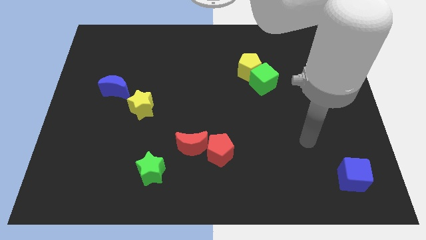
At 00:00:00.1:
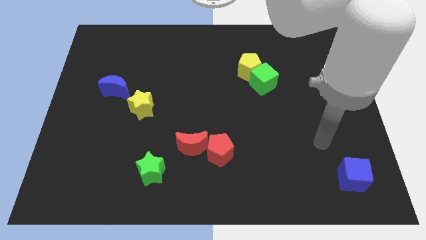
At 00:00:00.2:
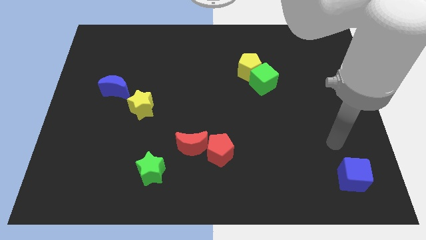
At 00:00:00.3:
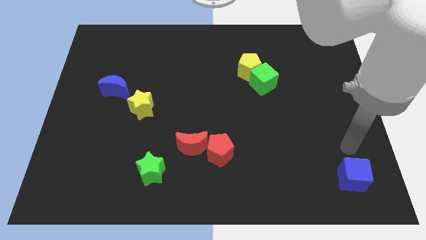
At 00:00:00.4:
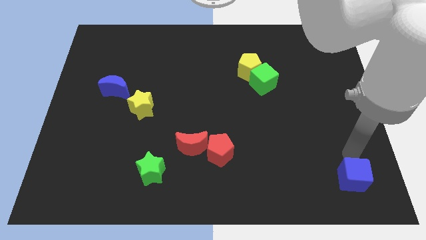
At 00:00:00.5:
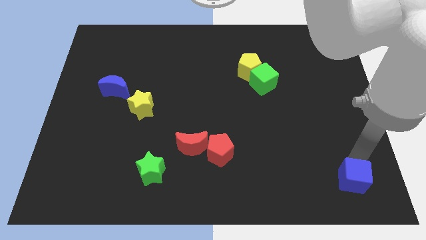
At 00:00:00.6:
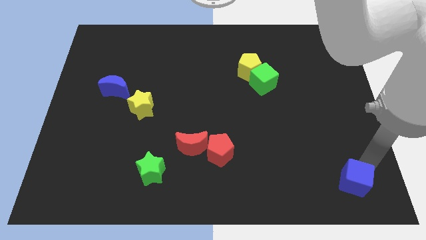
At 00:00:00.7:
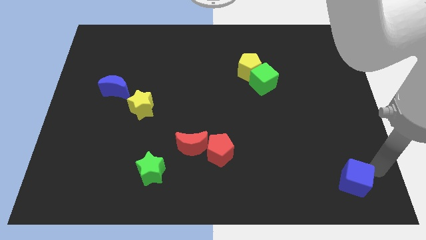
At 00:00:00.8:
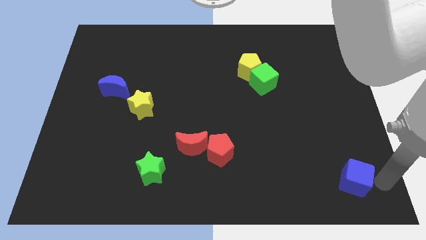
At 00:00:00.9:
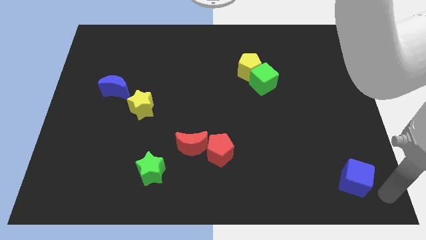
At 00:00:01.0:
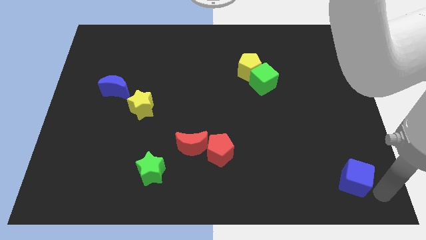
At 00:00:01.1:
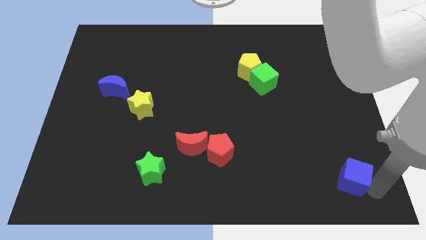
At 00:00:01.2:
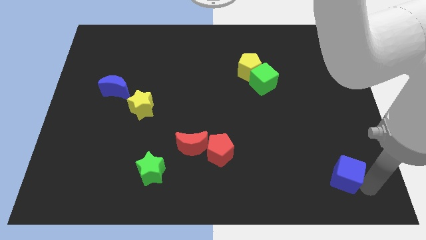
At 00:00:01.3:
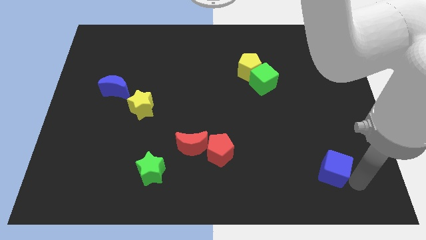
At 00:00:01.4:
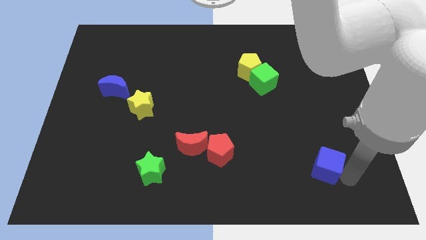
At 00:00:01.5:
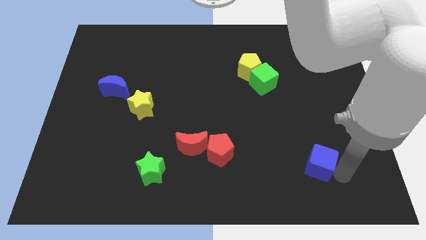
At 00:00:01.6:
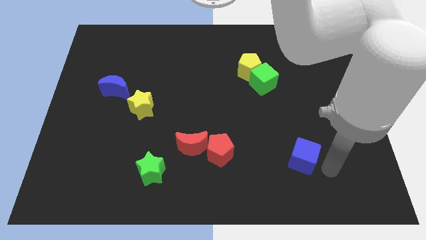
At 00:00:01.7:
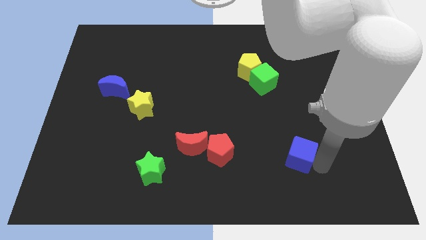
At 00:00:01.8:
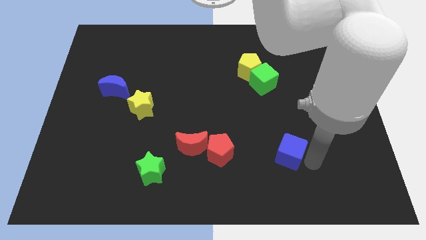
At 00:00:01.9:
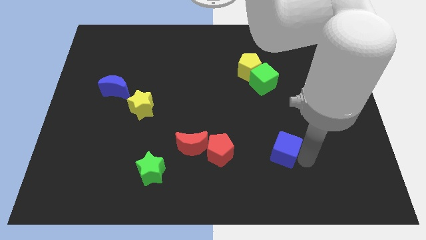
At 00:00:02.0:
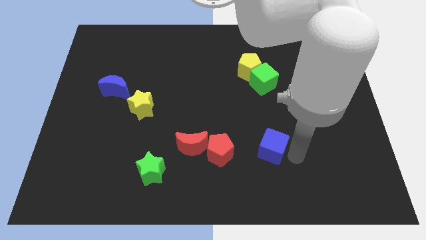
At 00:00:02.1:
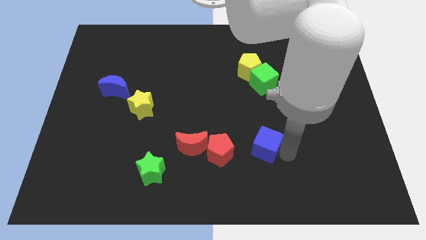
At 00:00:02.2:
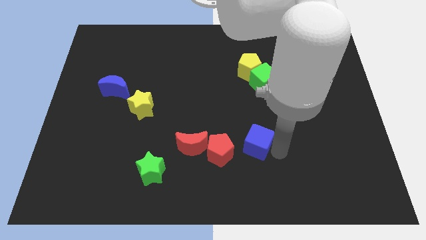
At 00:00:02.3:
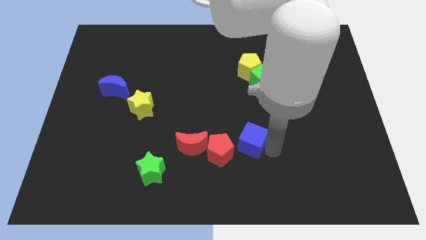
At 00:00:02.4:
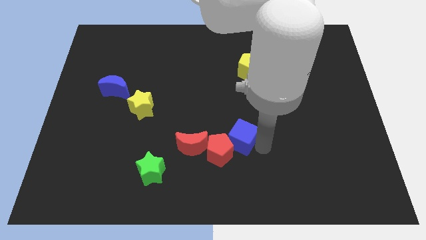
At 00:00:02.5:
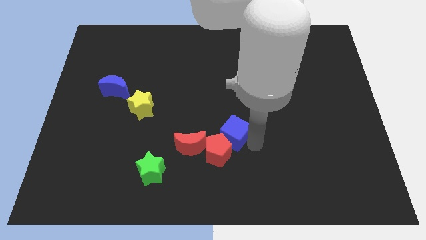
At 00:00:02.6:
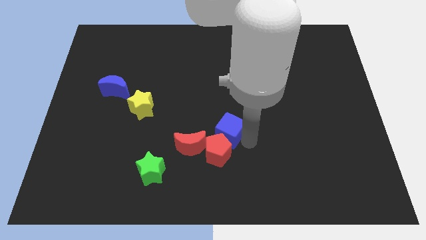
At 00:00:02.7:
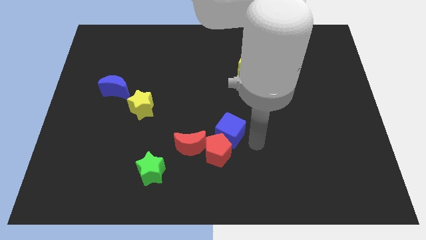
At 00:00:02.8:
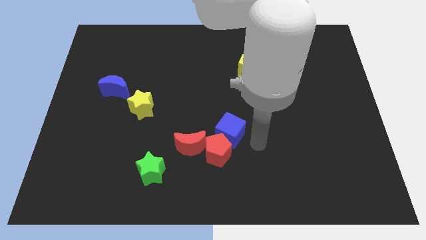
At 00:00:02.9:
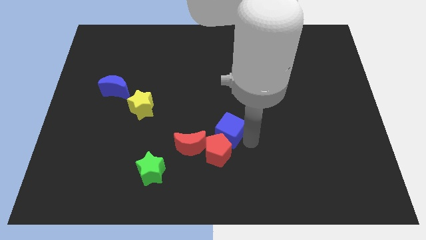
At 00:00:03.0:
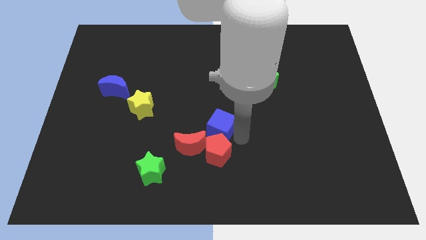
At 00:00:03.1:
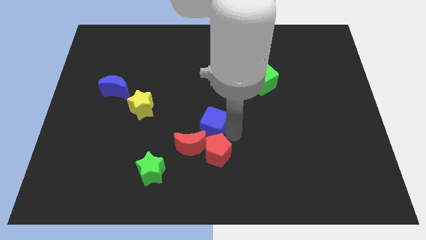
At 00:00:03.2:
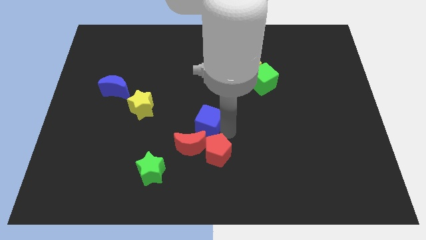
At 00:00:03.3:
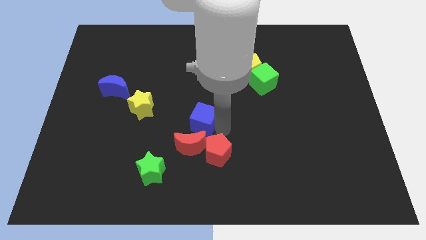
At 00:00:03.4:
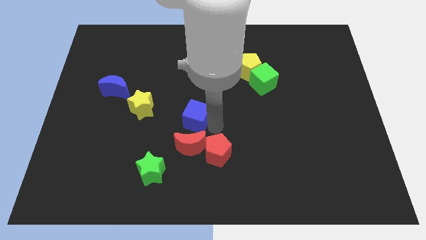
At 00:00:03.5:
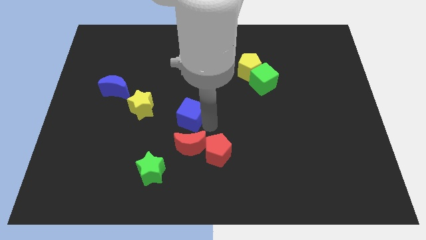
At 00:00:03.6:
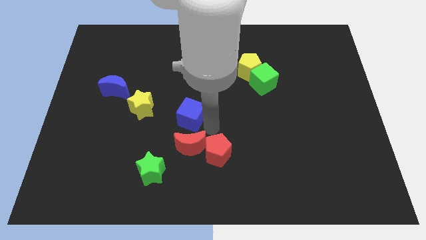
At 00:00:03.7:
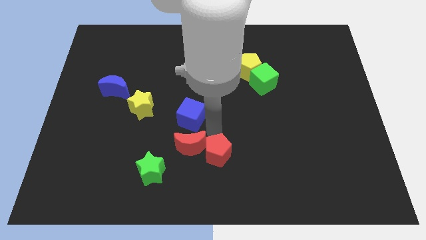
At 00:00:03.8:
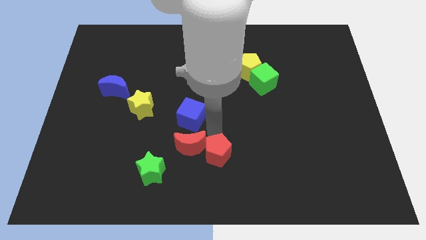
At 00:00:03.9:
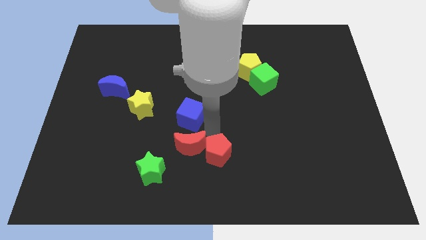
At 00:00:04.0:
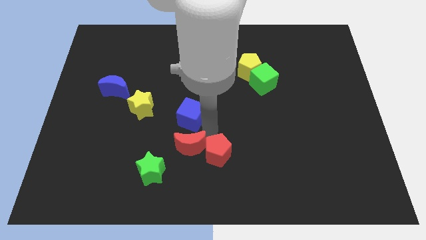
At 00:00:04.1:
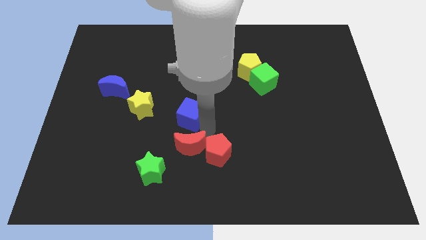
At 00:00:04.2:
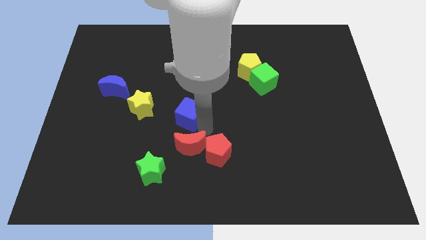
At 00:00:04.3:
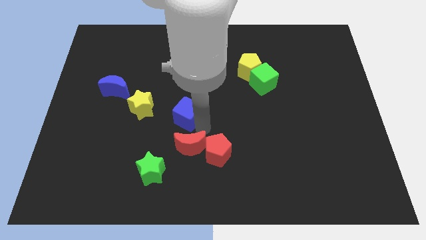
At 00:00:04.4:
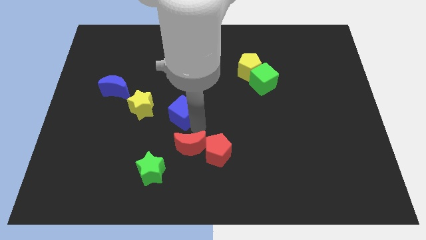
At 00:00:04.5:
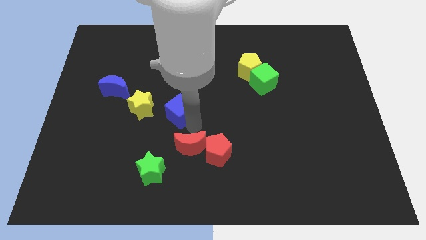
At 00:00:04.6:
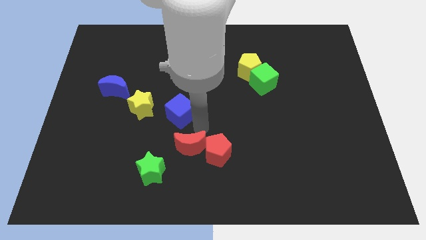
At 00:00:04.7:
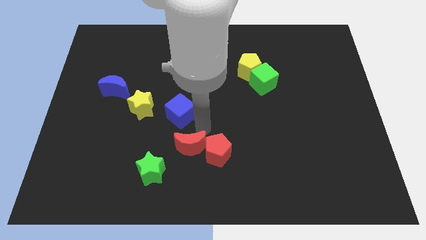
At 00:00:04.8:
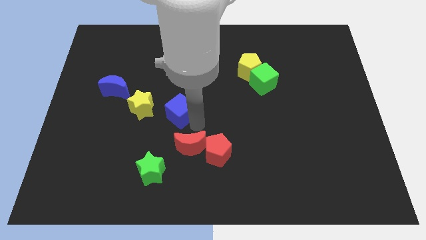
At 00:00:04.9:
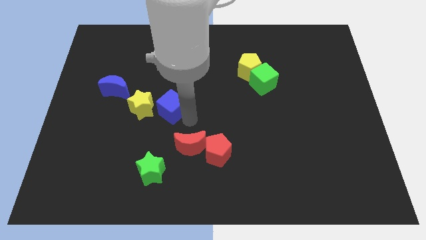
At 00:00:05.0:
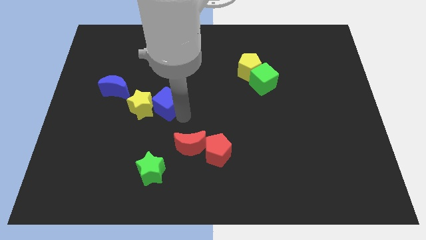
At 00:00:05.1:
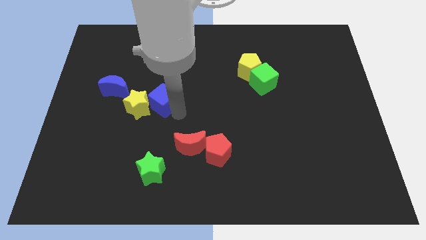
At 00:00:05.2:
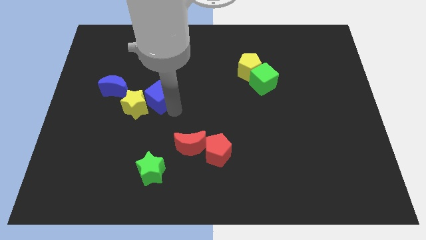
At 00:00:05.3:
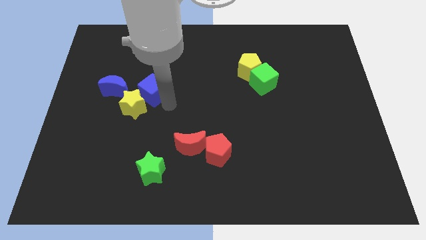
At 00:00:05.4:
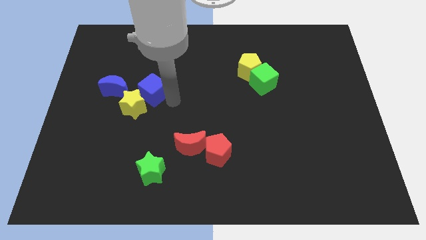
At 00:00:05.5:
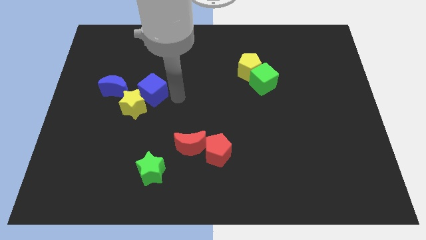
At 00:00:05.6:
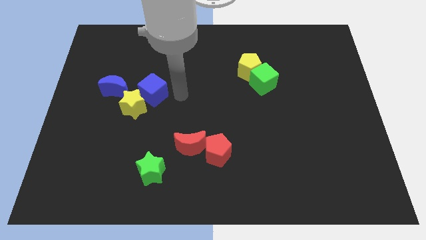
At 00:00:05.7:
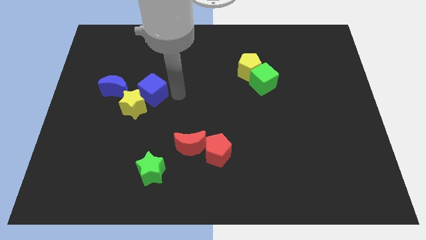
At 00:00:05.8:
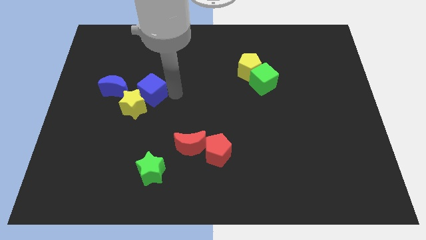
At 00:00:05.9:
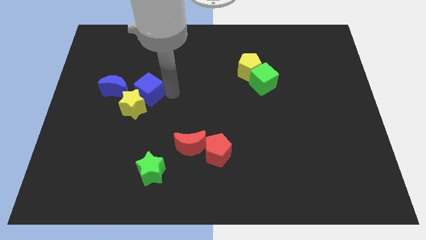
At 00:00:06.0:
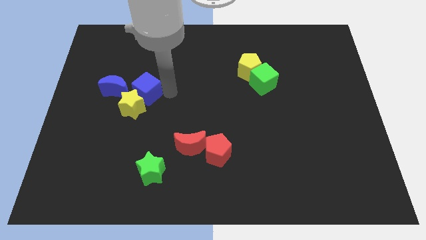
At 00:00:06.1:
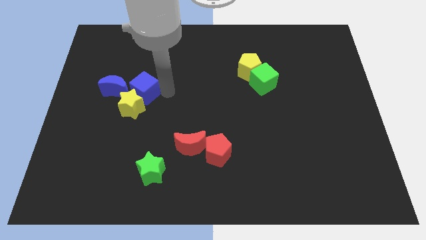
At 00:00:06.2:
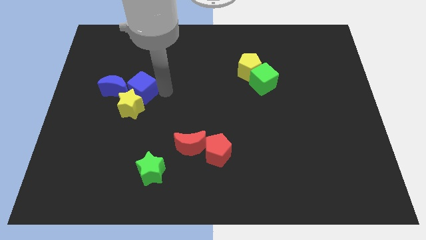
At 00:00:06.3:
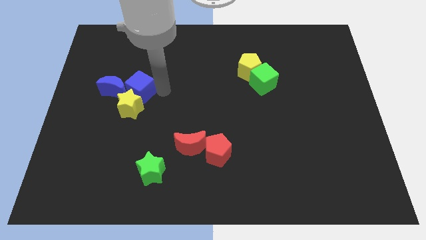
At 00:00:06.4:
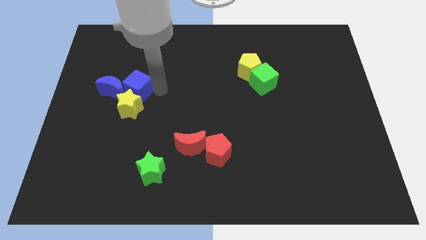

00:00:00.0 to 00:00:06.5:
slide the blue cube to the blue moon
